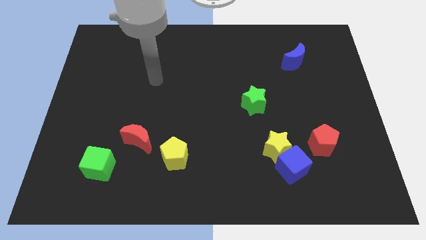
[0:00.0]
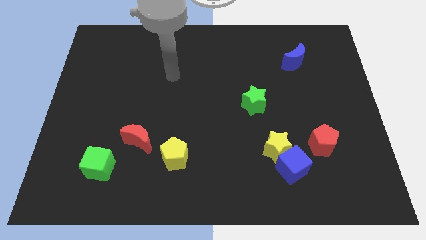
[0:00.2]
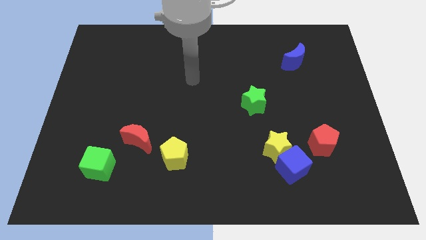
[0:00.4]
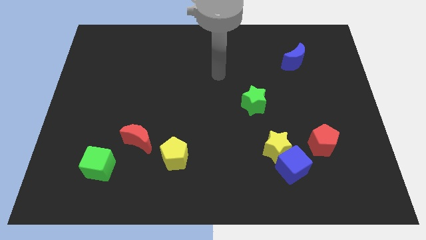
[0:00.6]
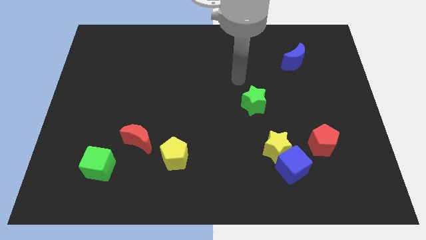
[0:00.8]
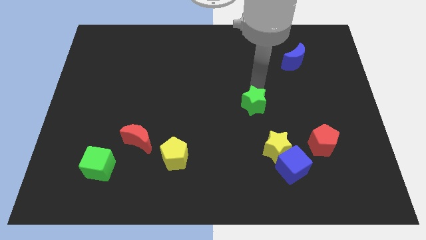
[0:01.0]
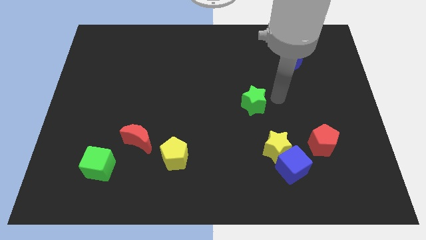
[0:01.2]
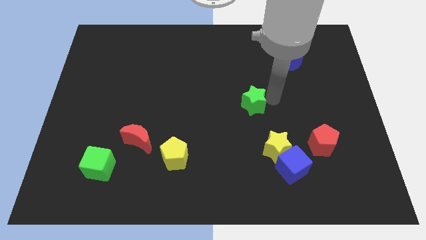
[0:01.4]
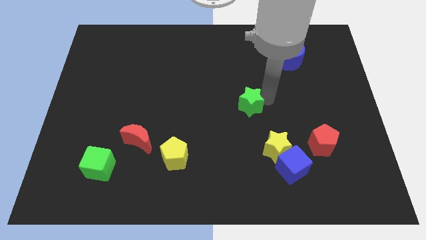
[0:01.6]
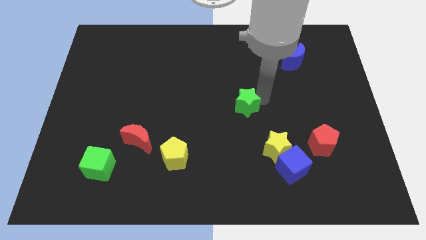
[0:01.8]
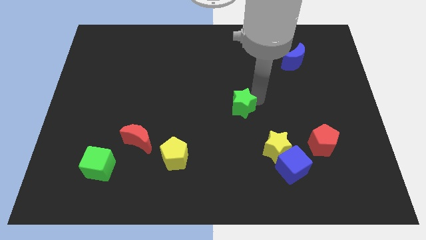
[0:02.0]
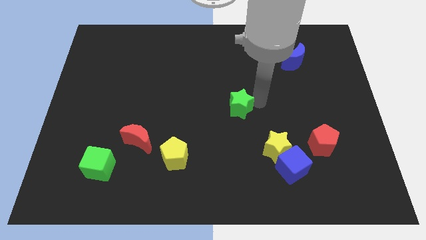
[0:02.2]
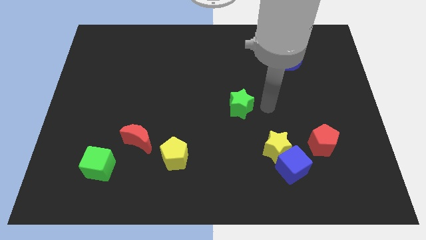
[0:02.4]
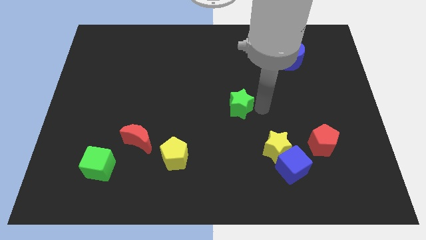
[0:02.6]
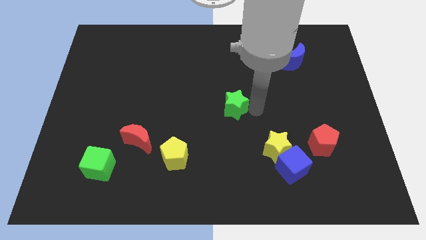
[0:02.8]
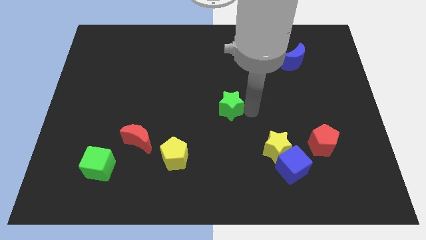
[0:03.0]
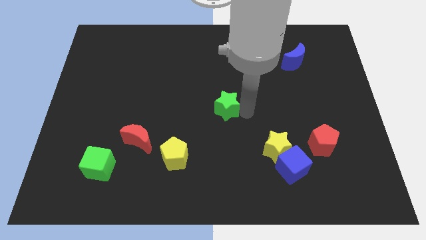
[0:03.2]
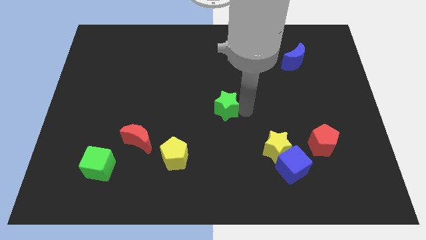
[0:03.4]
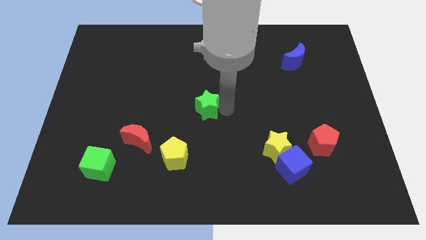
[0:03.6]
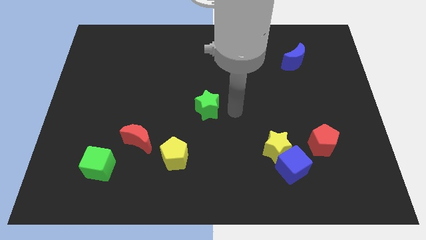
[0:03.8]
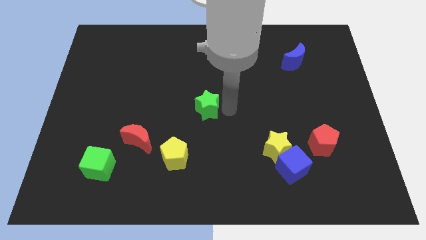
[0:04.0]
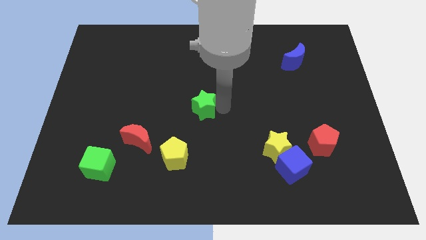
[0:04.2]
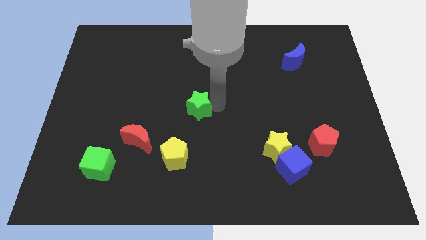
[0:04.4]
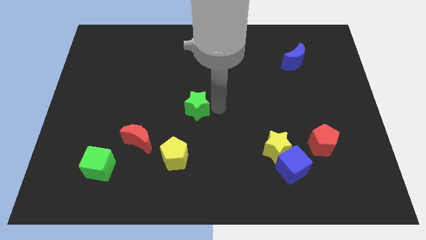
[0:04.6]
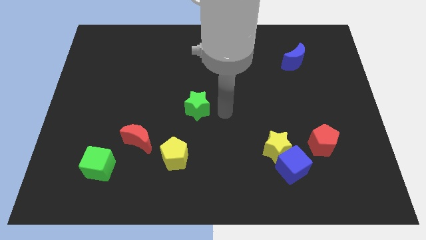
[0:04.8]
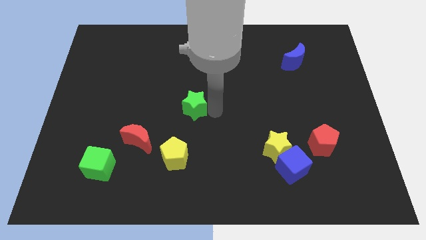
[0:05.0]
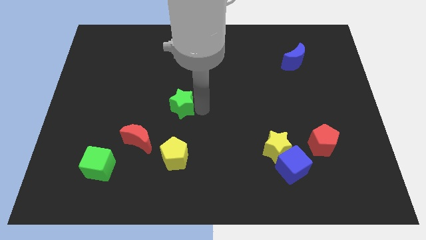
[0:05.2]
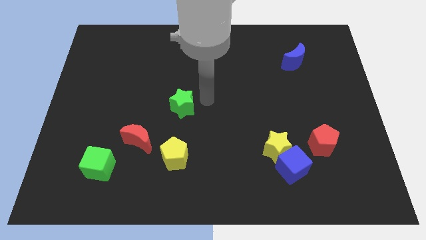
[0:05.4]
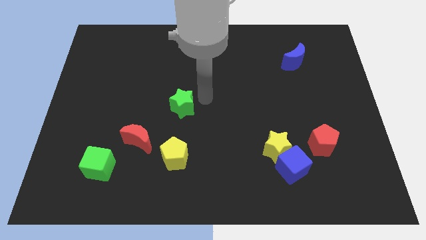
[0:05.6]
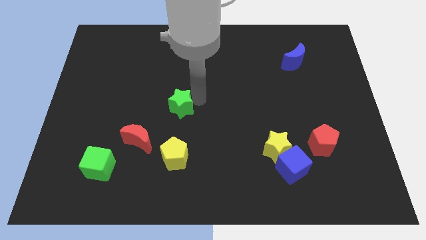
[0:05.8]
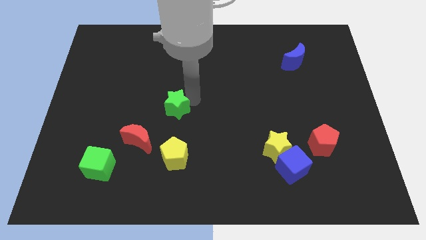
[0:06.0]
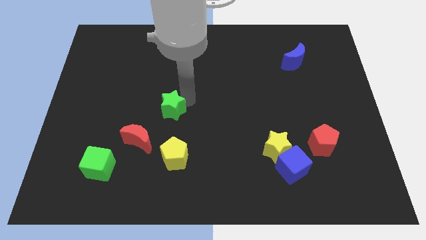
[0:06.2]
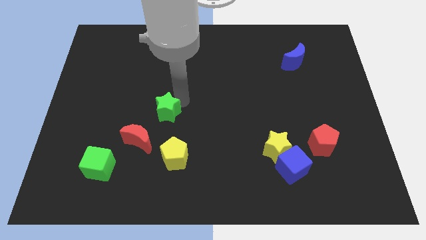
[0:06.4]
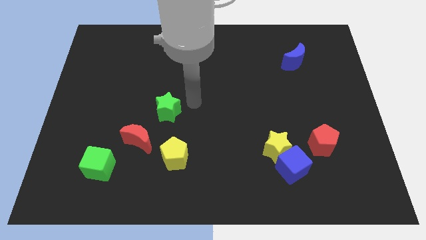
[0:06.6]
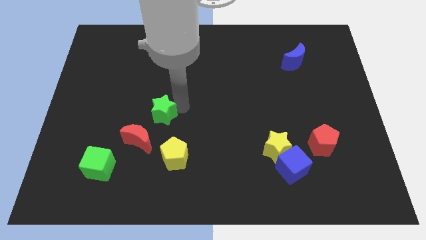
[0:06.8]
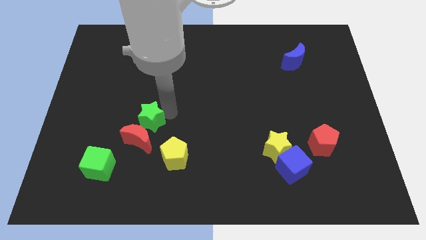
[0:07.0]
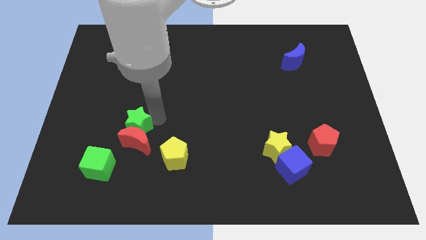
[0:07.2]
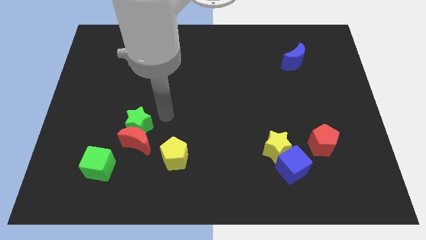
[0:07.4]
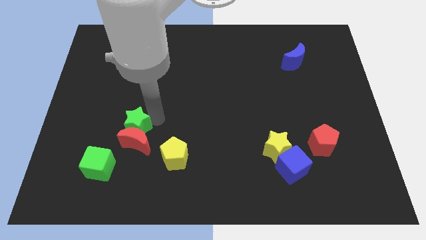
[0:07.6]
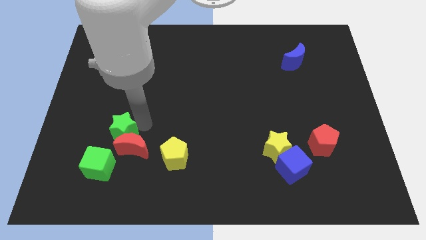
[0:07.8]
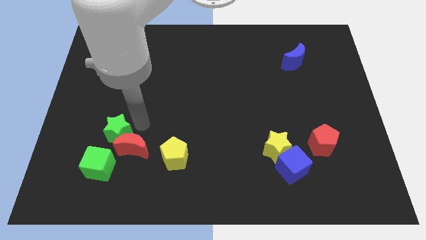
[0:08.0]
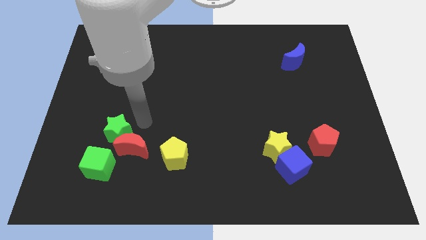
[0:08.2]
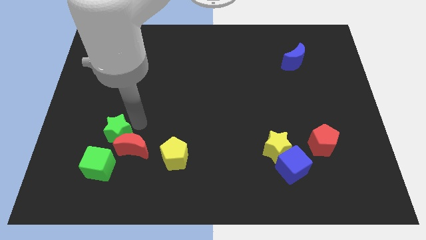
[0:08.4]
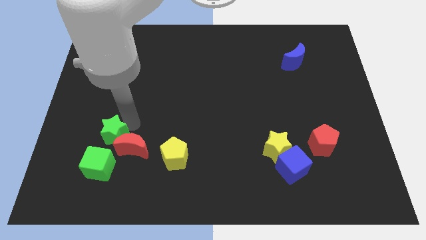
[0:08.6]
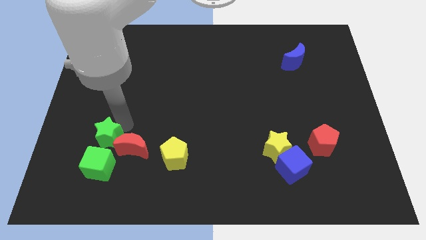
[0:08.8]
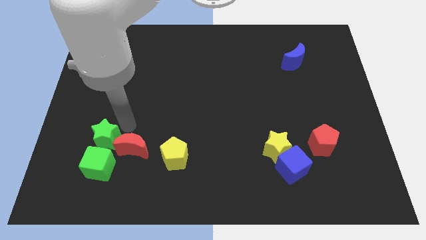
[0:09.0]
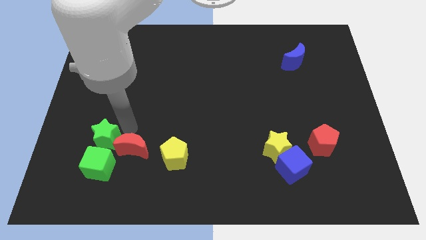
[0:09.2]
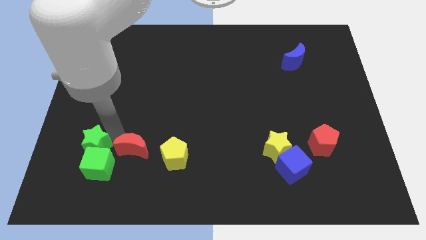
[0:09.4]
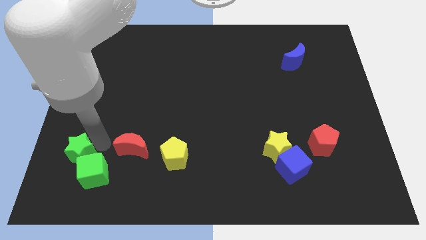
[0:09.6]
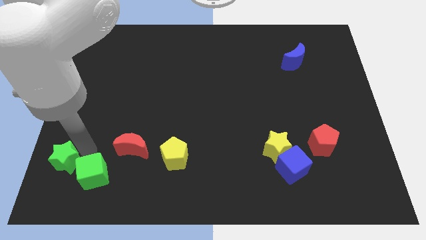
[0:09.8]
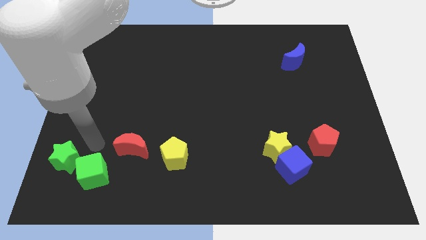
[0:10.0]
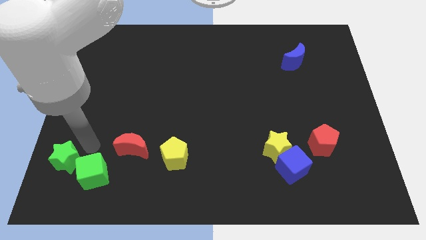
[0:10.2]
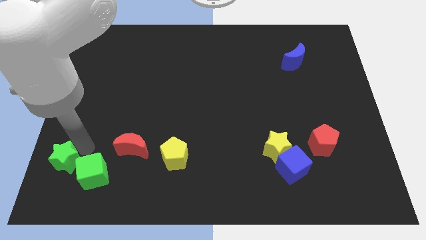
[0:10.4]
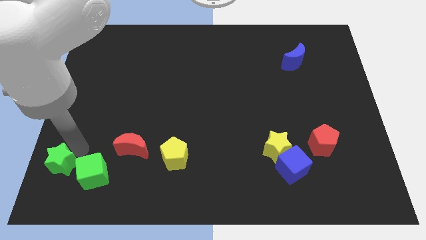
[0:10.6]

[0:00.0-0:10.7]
slide the green star to the bottom left

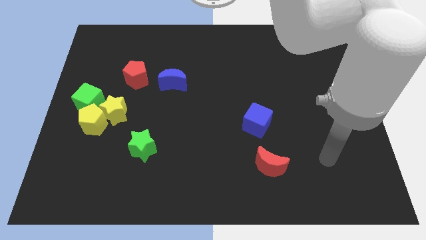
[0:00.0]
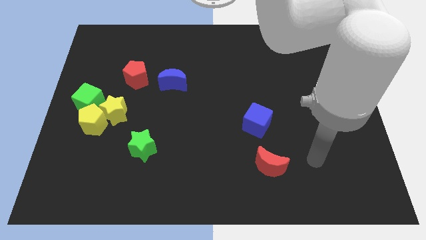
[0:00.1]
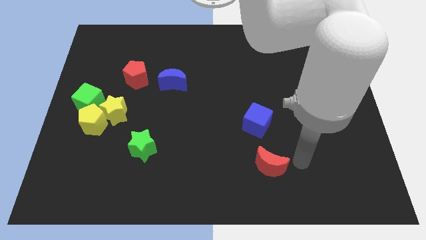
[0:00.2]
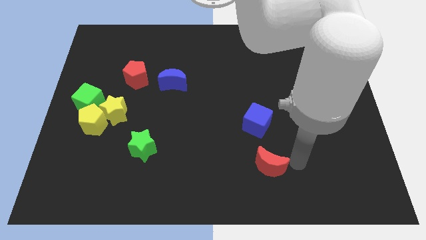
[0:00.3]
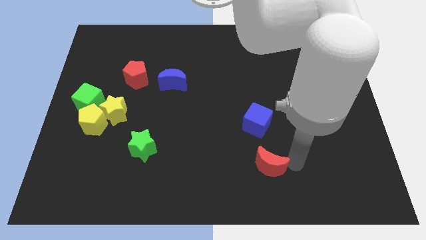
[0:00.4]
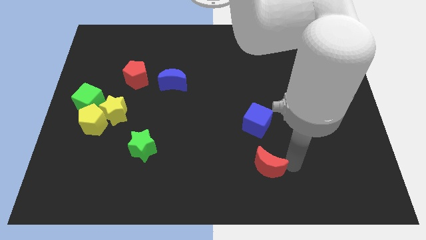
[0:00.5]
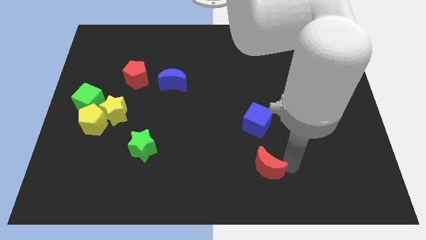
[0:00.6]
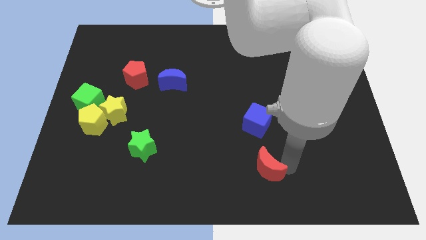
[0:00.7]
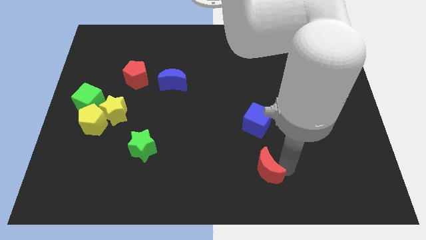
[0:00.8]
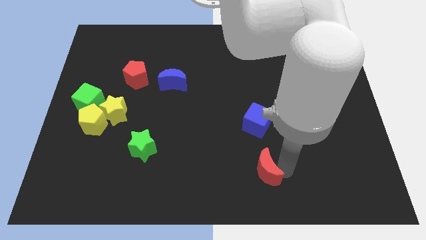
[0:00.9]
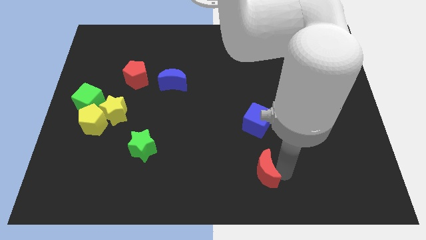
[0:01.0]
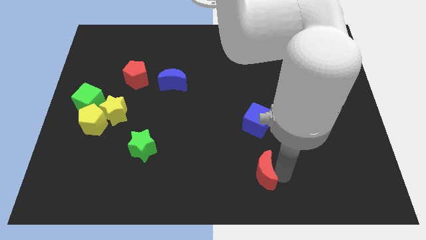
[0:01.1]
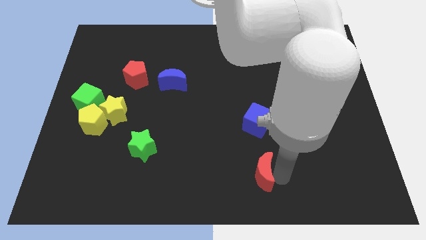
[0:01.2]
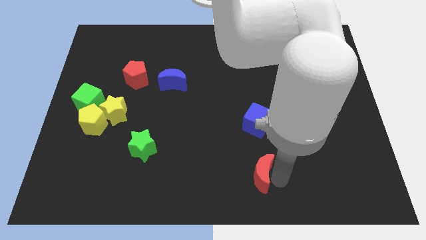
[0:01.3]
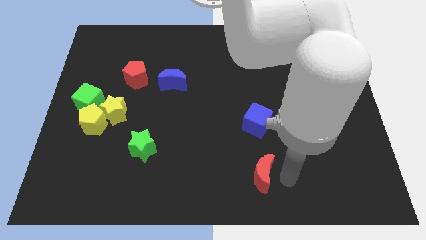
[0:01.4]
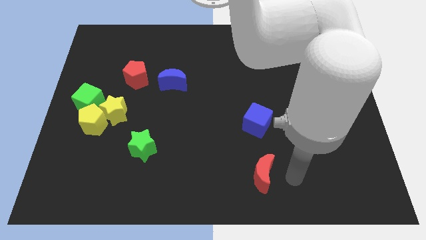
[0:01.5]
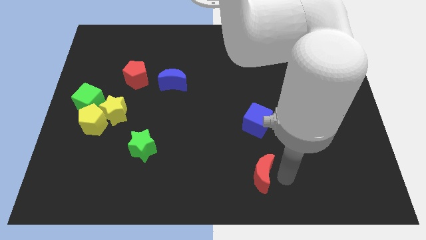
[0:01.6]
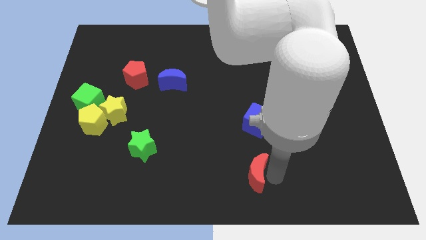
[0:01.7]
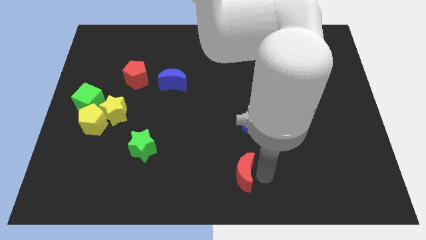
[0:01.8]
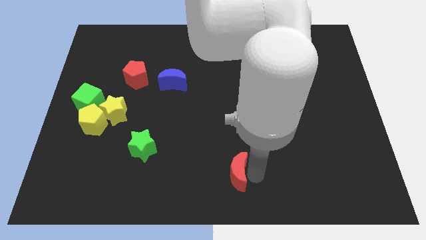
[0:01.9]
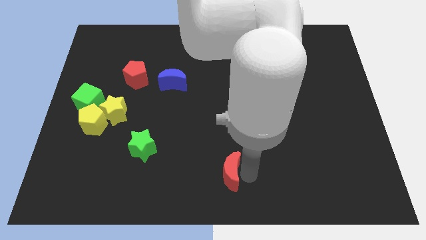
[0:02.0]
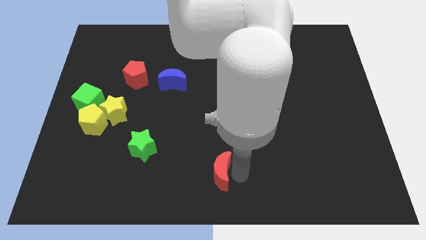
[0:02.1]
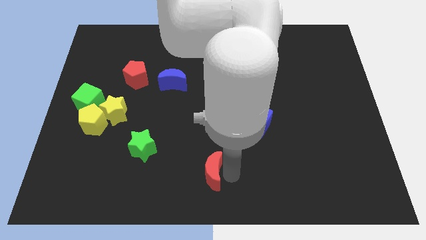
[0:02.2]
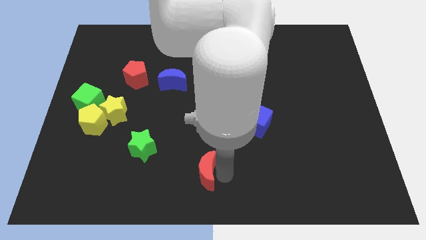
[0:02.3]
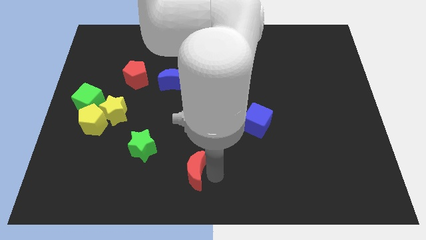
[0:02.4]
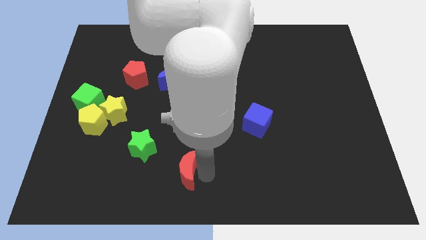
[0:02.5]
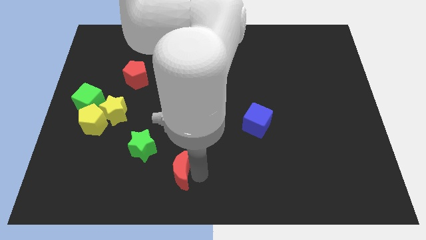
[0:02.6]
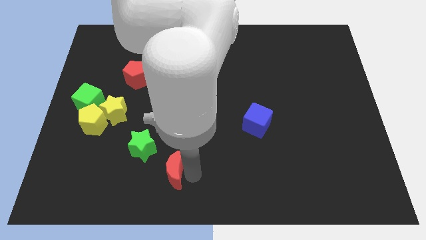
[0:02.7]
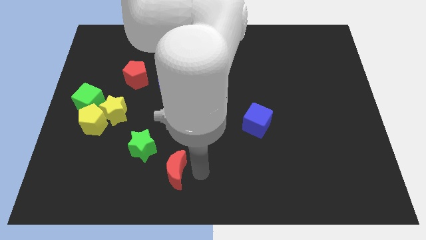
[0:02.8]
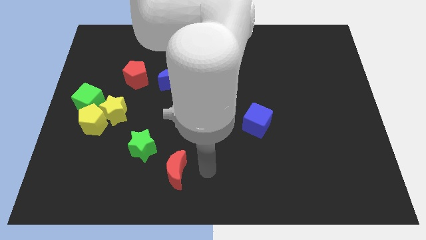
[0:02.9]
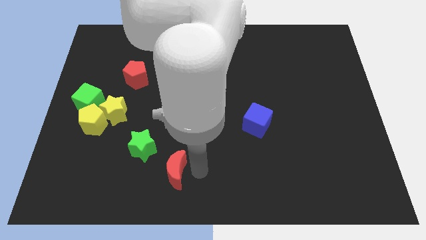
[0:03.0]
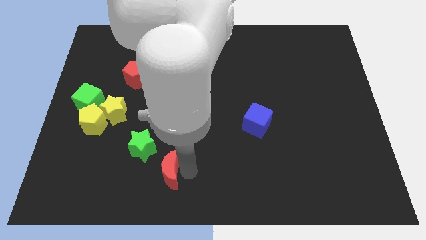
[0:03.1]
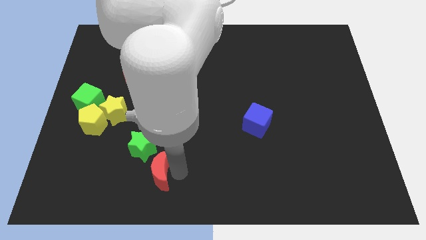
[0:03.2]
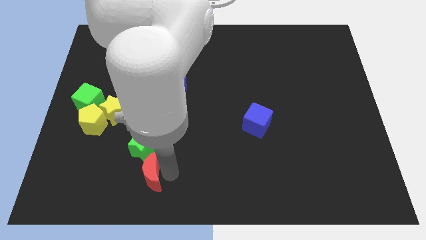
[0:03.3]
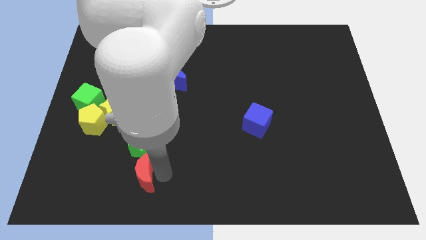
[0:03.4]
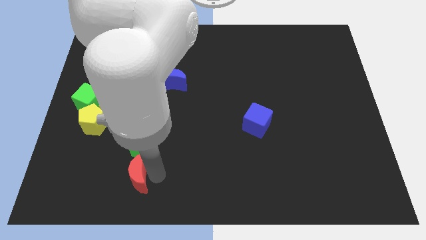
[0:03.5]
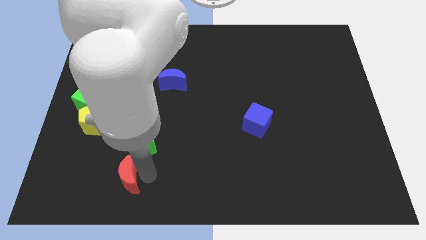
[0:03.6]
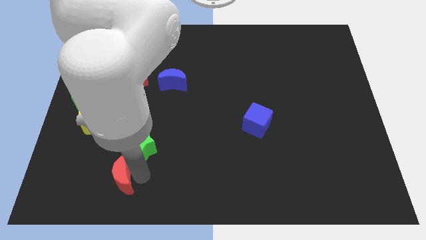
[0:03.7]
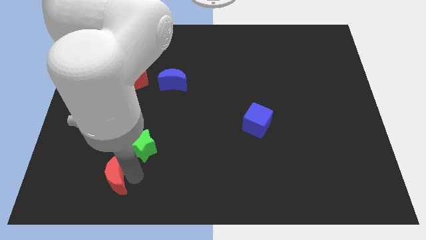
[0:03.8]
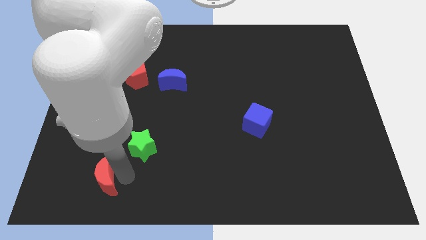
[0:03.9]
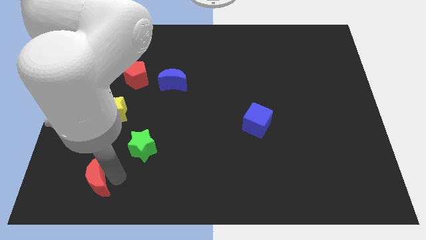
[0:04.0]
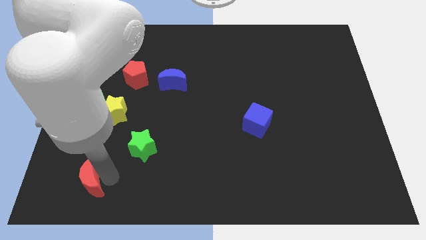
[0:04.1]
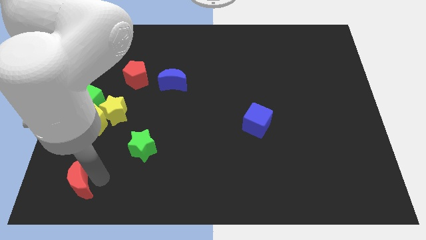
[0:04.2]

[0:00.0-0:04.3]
push the red moon to the bottom left of the board
